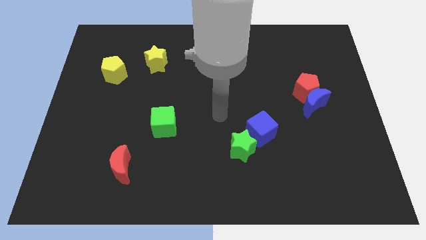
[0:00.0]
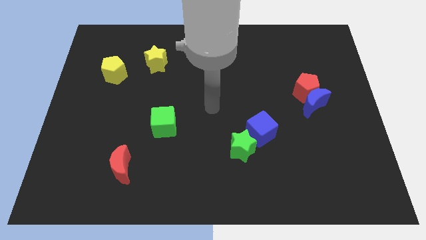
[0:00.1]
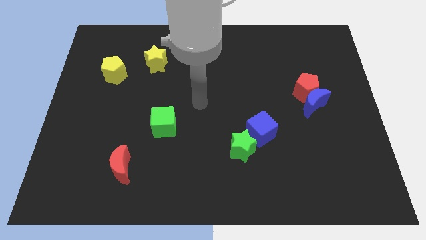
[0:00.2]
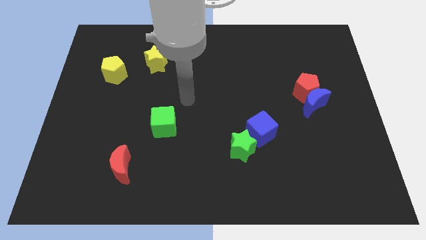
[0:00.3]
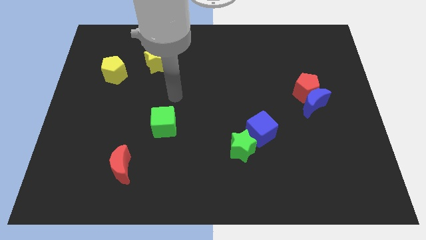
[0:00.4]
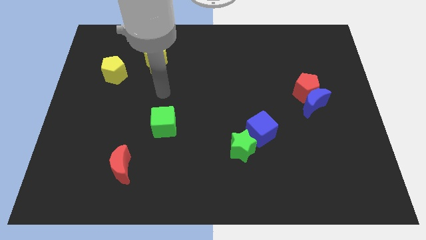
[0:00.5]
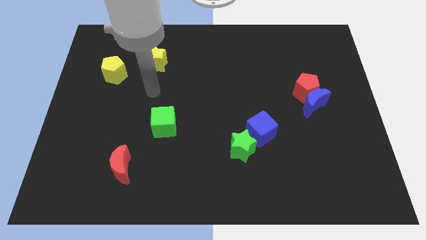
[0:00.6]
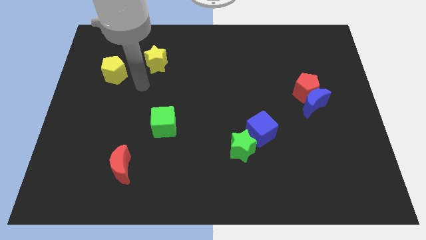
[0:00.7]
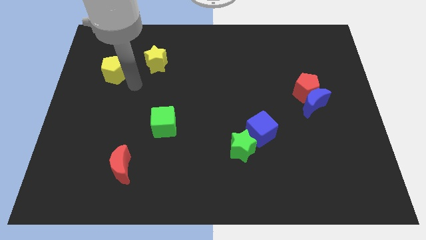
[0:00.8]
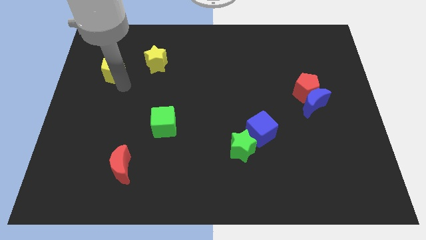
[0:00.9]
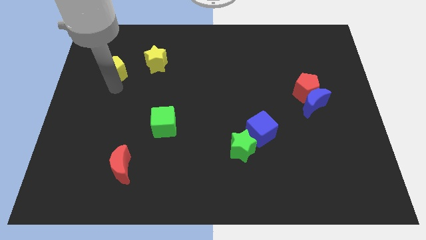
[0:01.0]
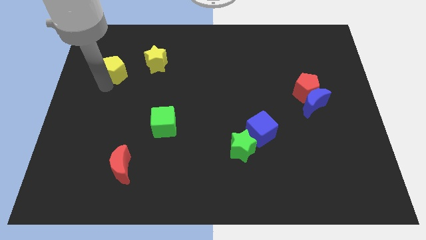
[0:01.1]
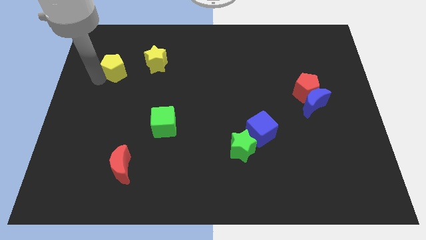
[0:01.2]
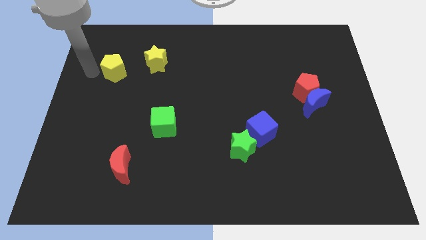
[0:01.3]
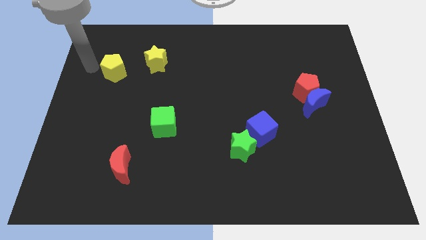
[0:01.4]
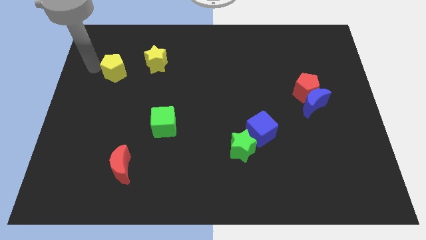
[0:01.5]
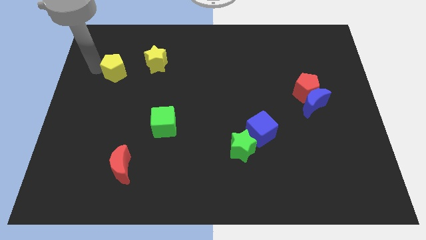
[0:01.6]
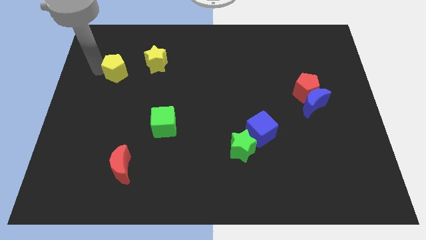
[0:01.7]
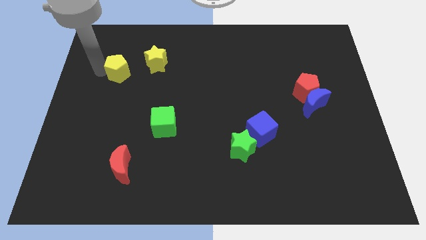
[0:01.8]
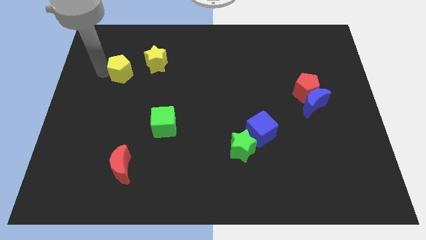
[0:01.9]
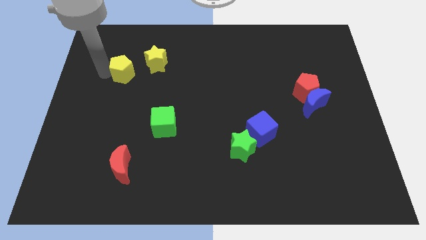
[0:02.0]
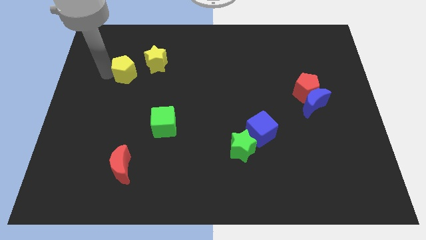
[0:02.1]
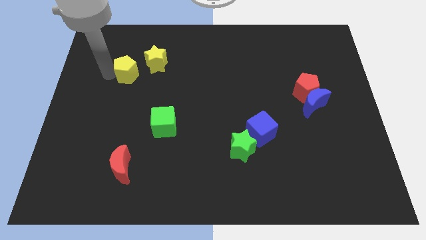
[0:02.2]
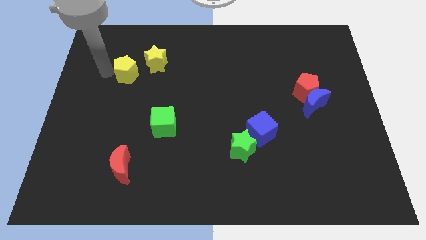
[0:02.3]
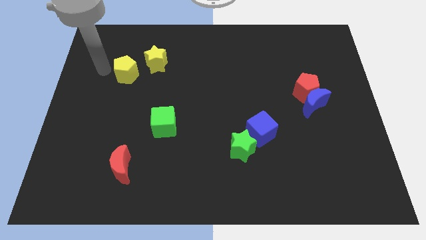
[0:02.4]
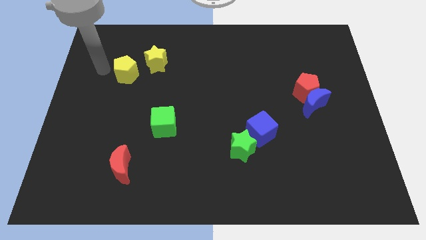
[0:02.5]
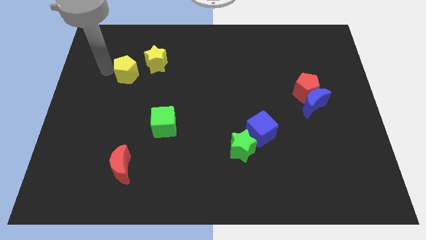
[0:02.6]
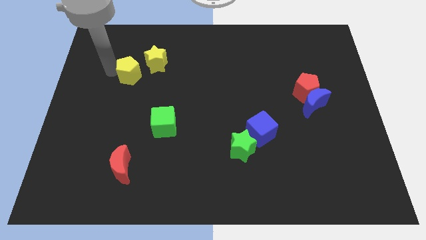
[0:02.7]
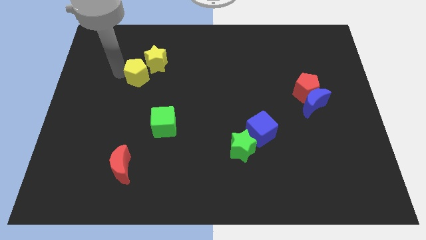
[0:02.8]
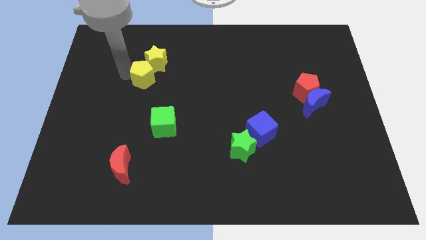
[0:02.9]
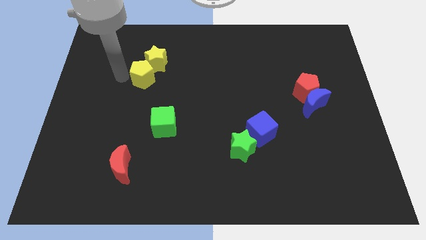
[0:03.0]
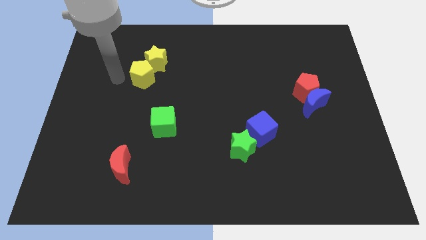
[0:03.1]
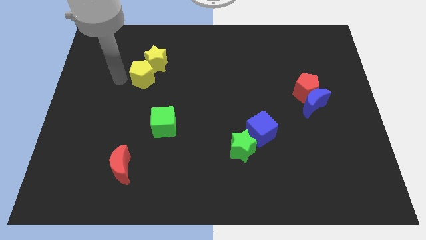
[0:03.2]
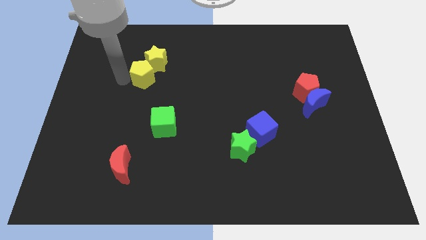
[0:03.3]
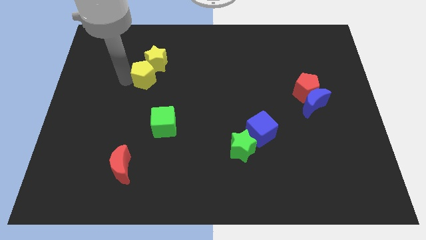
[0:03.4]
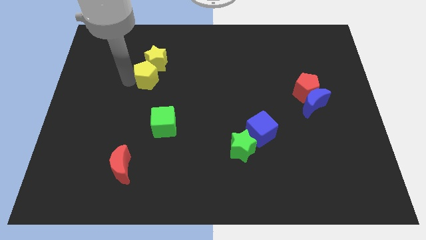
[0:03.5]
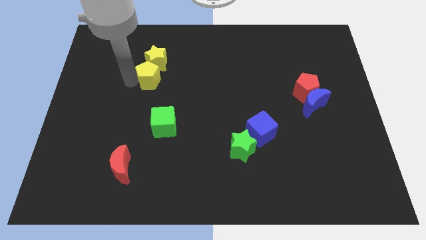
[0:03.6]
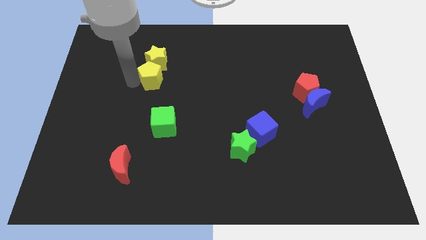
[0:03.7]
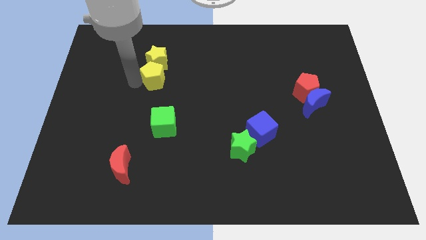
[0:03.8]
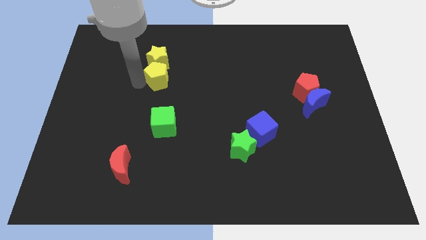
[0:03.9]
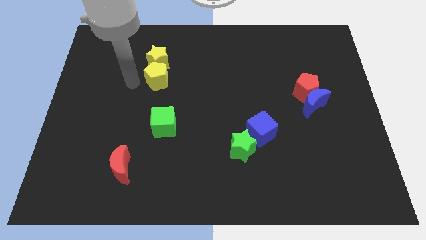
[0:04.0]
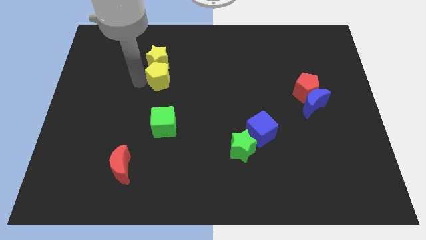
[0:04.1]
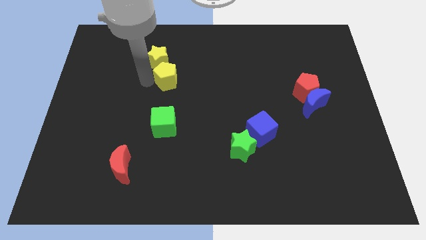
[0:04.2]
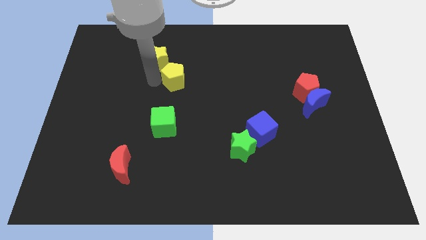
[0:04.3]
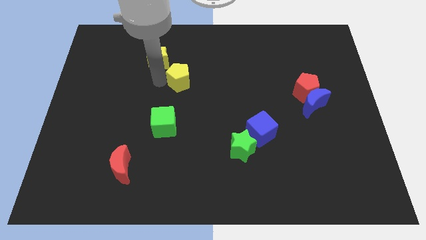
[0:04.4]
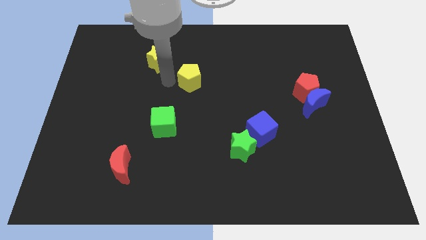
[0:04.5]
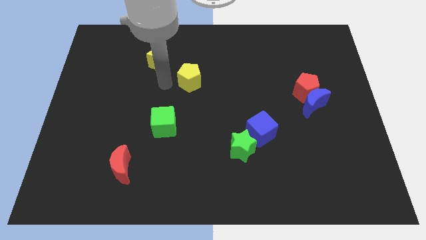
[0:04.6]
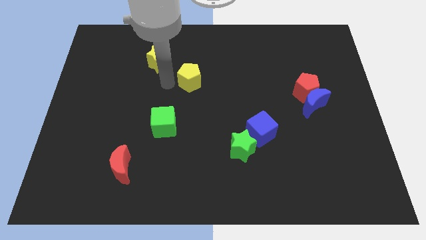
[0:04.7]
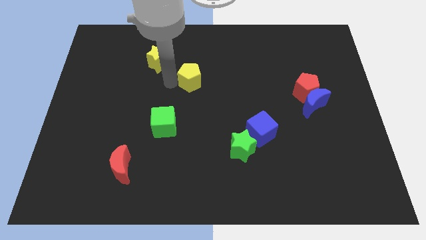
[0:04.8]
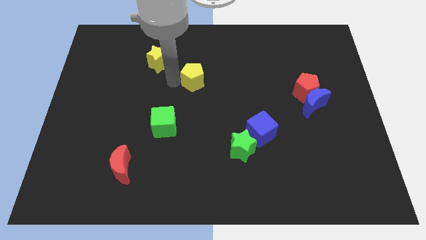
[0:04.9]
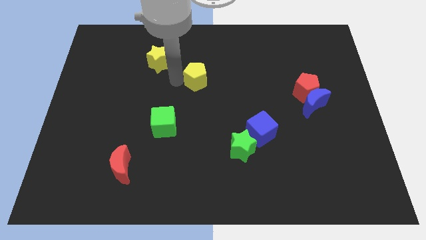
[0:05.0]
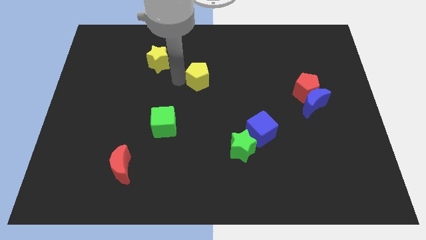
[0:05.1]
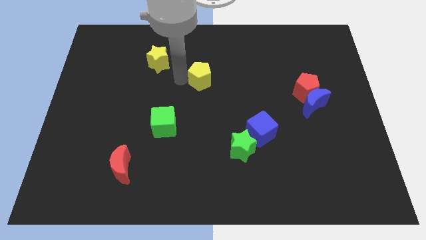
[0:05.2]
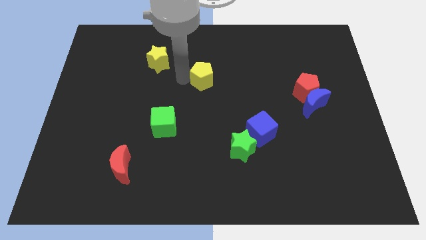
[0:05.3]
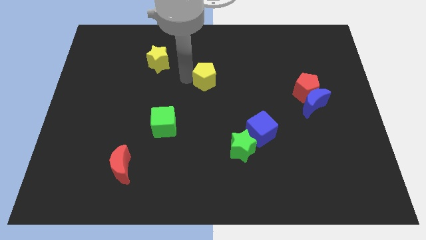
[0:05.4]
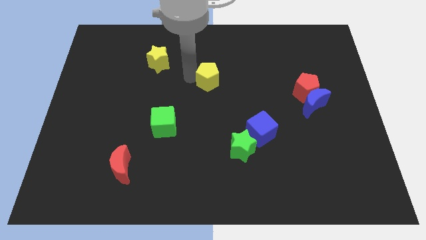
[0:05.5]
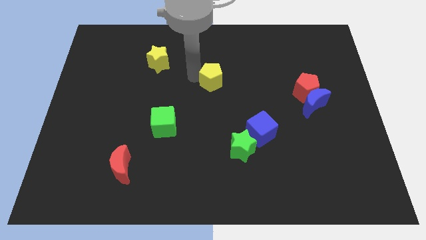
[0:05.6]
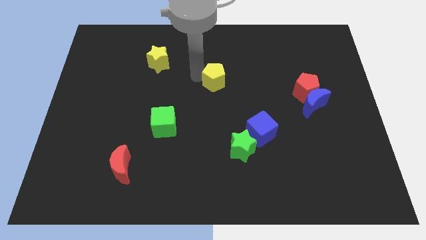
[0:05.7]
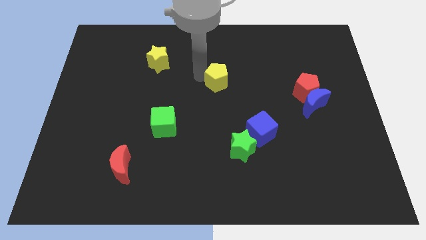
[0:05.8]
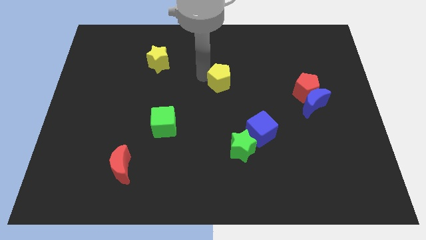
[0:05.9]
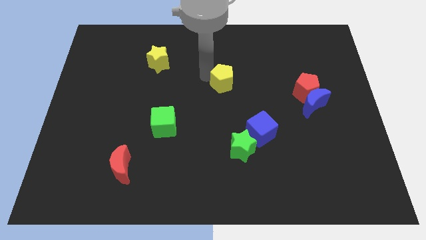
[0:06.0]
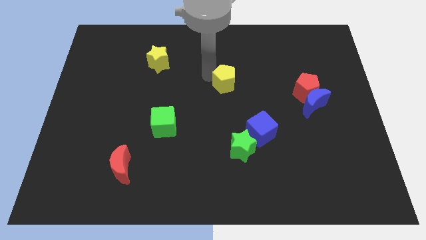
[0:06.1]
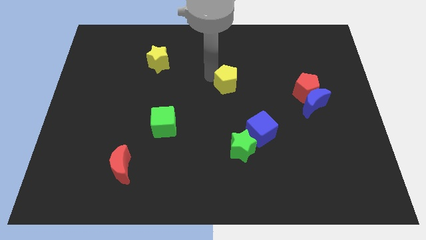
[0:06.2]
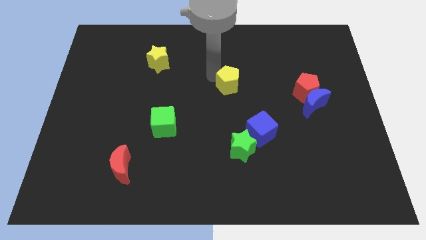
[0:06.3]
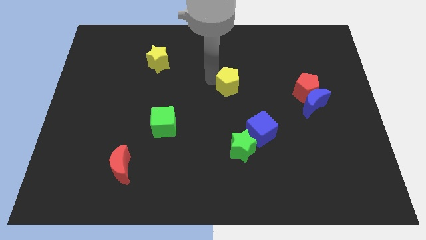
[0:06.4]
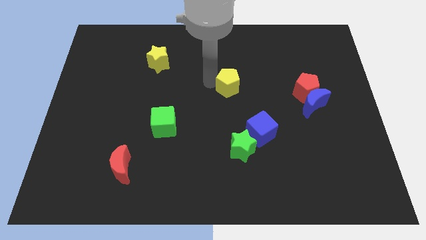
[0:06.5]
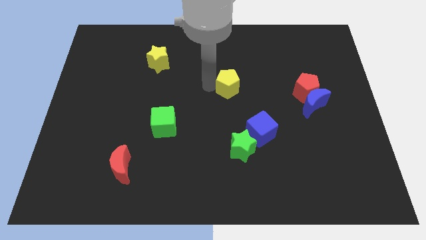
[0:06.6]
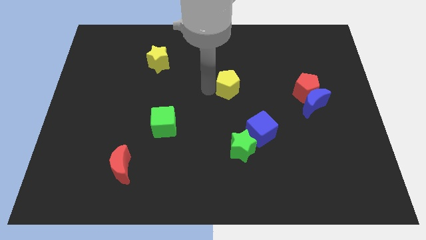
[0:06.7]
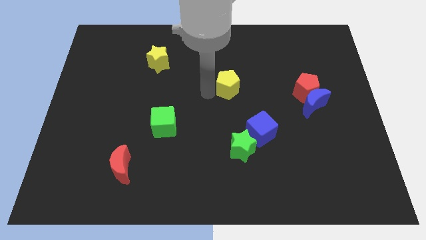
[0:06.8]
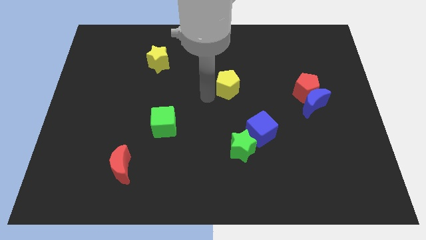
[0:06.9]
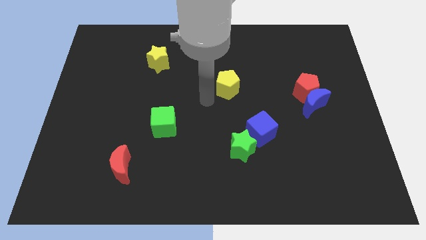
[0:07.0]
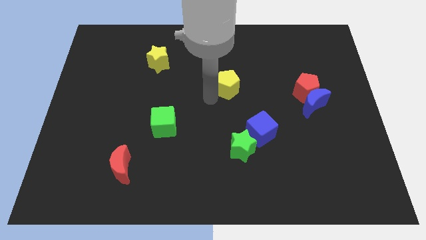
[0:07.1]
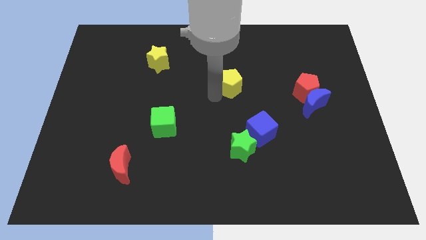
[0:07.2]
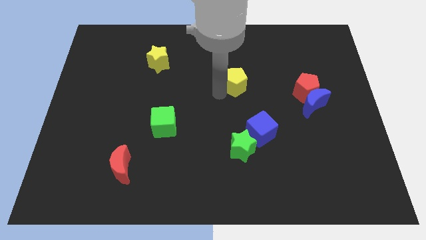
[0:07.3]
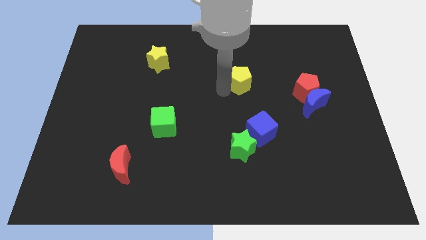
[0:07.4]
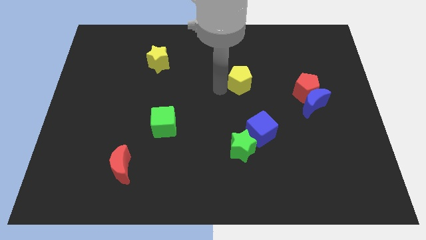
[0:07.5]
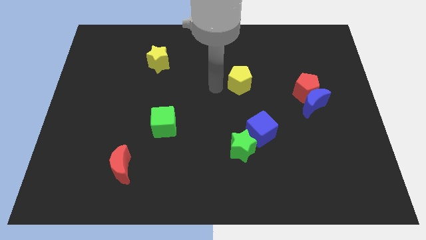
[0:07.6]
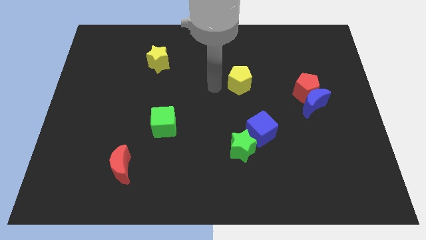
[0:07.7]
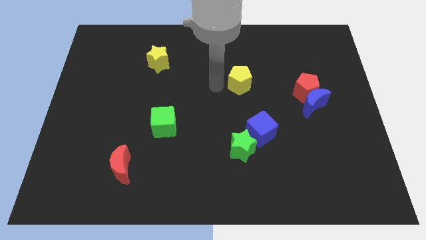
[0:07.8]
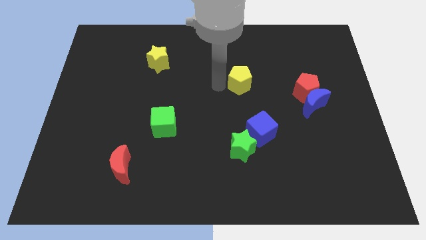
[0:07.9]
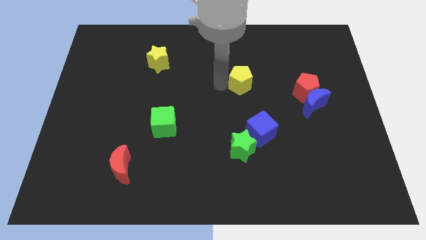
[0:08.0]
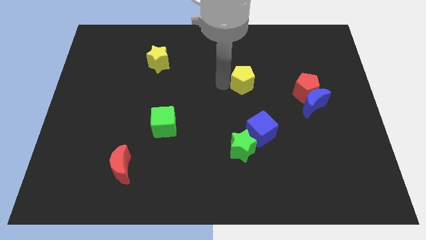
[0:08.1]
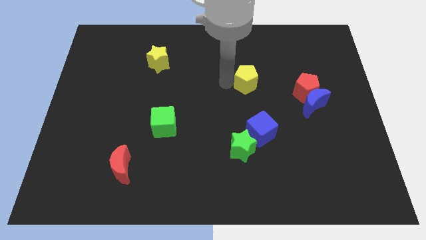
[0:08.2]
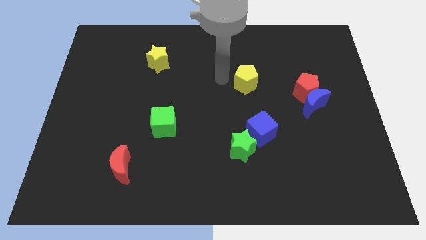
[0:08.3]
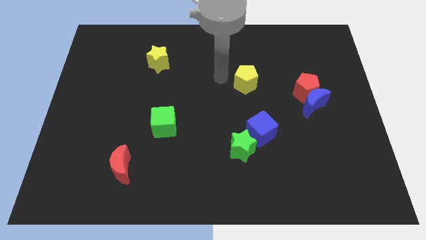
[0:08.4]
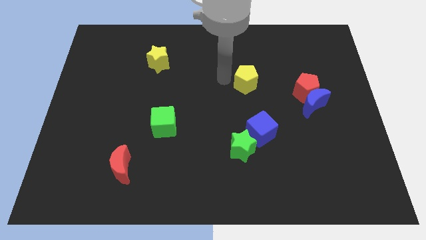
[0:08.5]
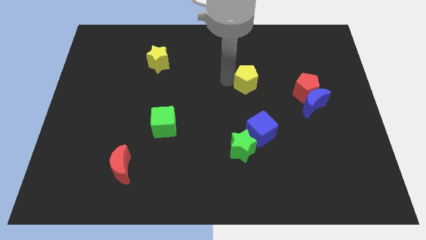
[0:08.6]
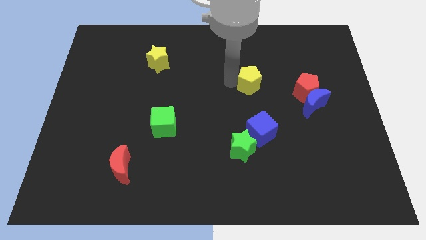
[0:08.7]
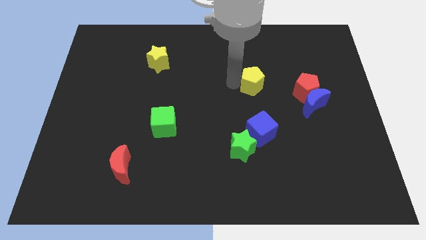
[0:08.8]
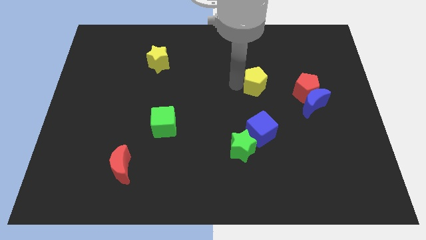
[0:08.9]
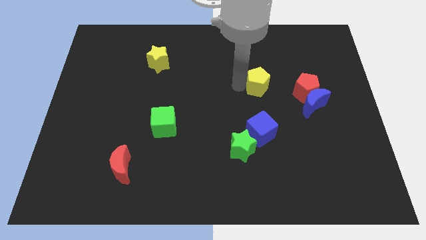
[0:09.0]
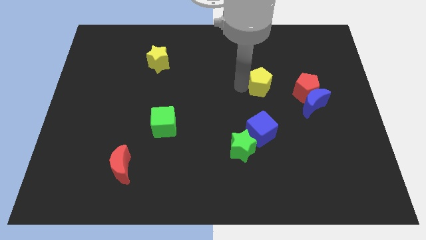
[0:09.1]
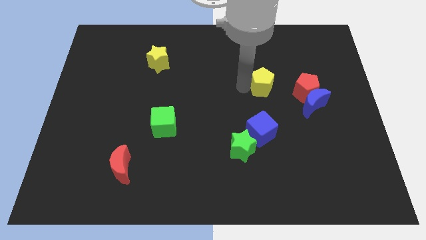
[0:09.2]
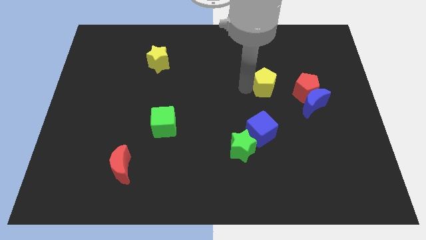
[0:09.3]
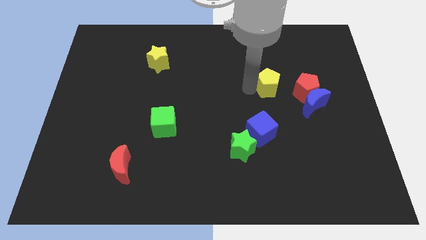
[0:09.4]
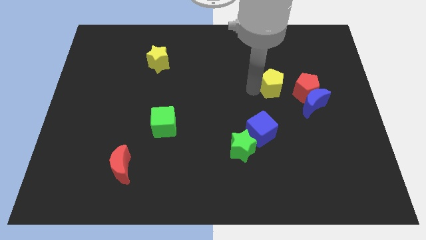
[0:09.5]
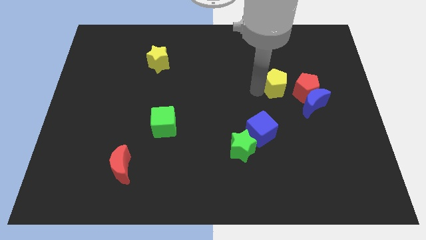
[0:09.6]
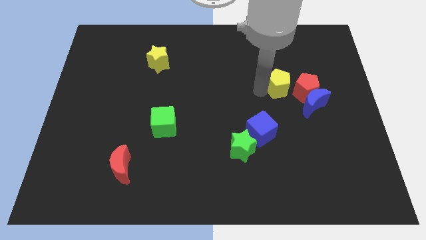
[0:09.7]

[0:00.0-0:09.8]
push the yellow pentagon close to the red pentagon
